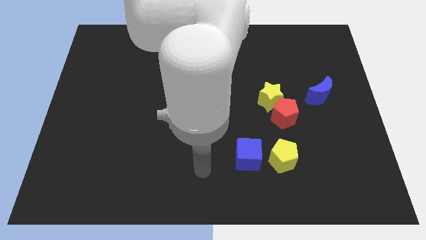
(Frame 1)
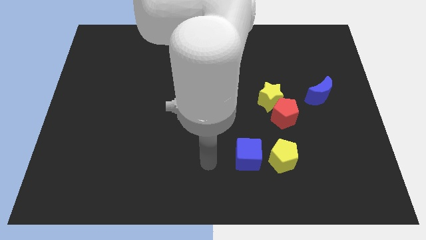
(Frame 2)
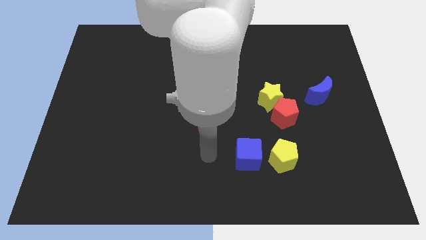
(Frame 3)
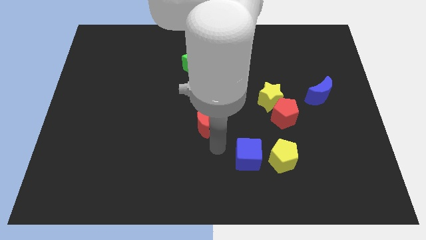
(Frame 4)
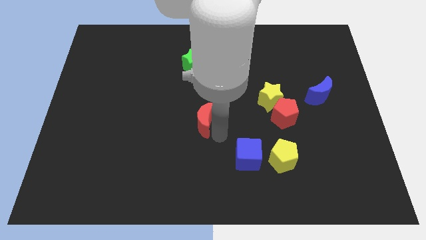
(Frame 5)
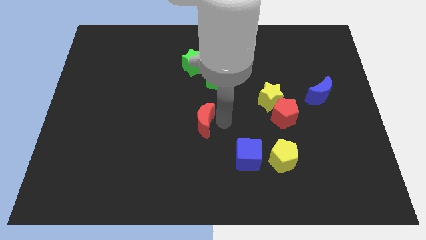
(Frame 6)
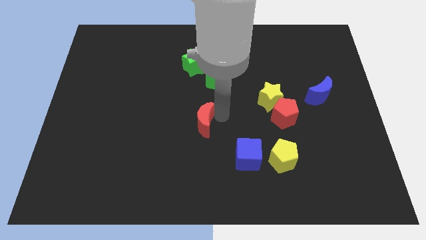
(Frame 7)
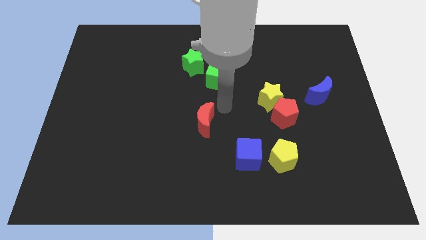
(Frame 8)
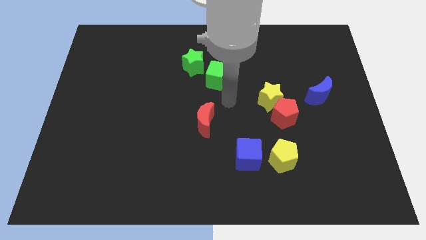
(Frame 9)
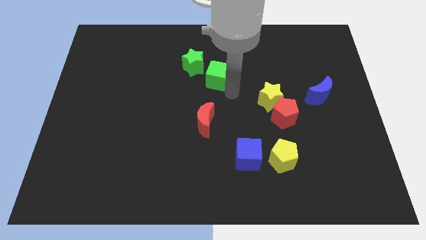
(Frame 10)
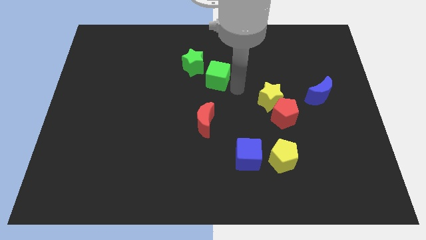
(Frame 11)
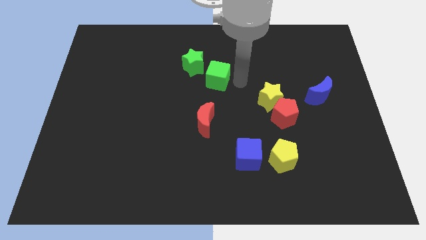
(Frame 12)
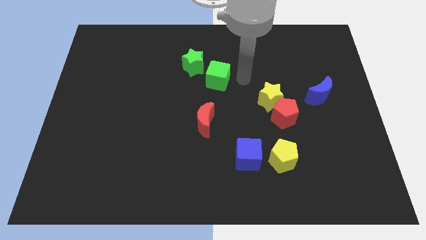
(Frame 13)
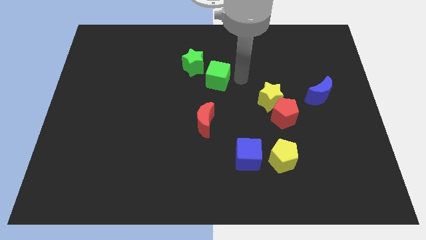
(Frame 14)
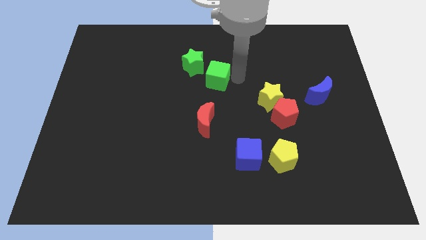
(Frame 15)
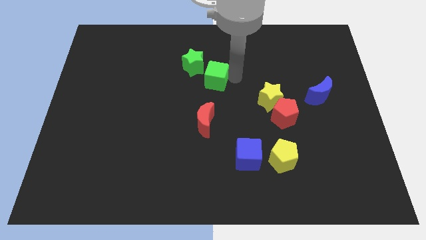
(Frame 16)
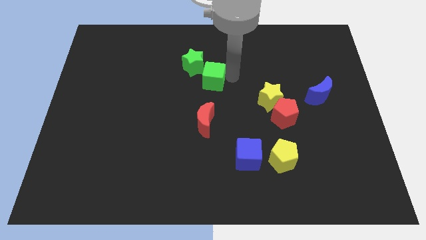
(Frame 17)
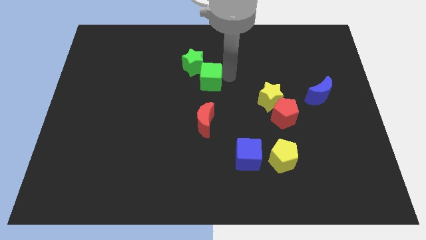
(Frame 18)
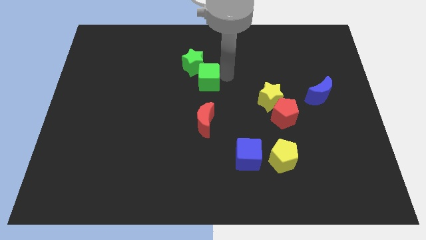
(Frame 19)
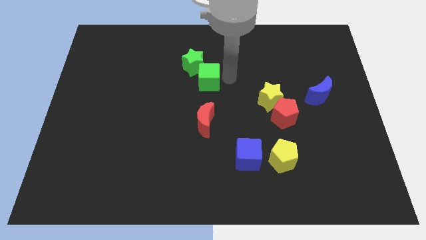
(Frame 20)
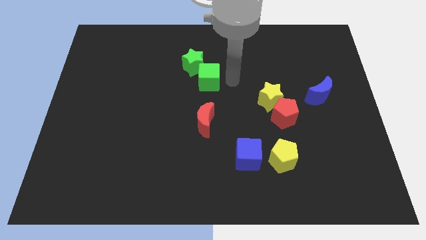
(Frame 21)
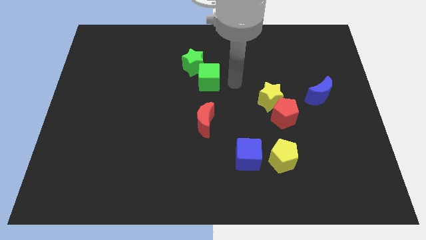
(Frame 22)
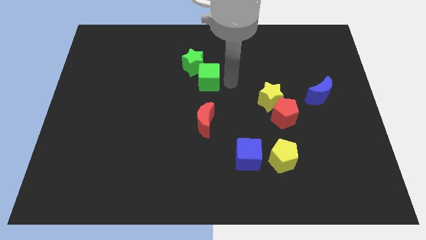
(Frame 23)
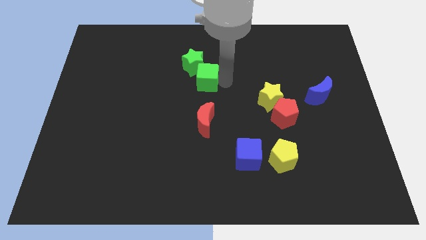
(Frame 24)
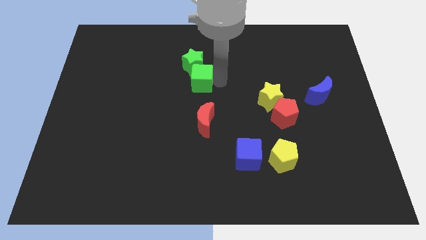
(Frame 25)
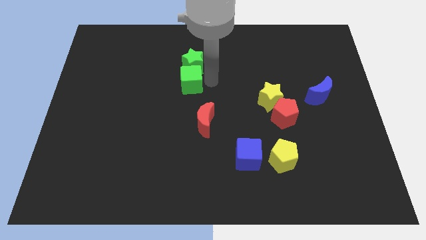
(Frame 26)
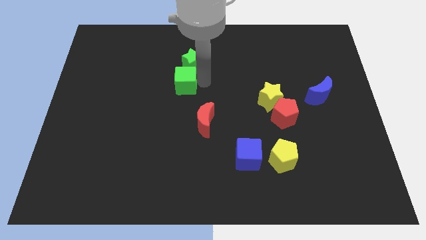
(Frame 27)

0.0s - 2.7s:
slightly move the green cube left

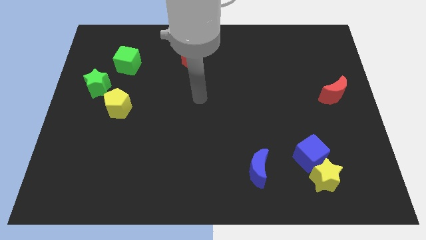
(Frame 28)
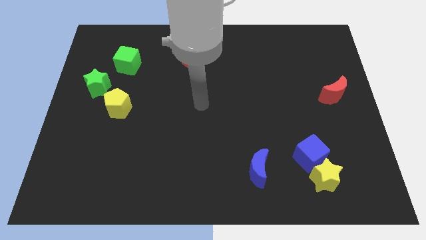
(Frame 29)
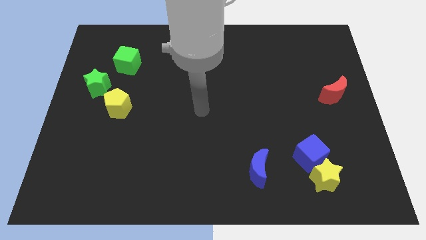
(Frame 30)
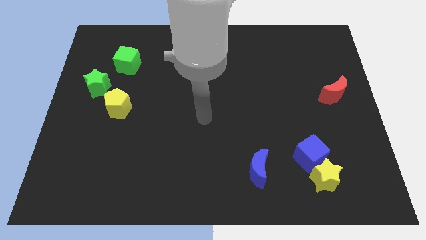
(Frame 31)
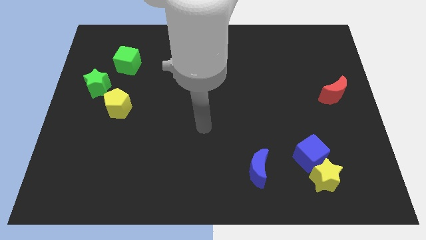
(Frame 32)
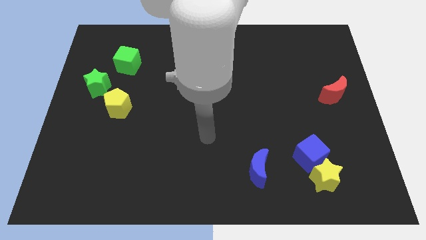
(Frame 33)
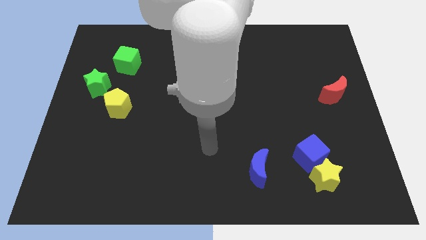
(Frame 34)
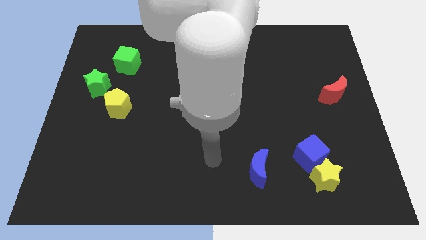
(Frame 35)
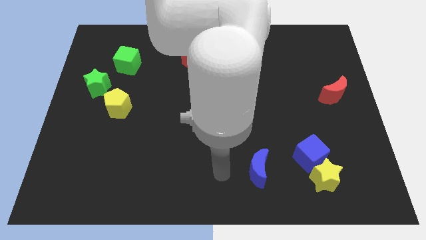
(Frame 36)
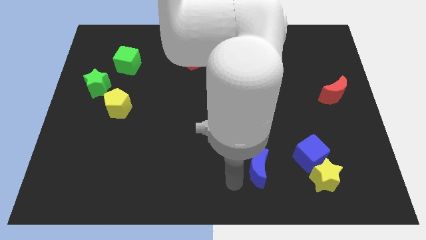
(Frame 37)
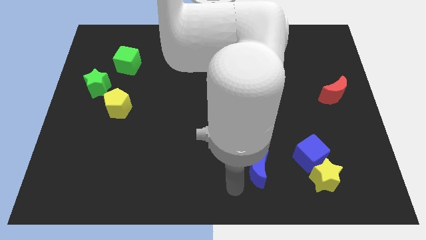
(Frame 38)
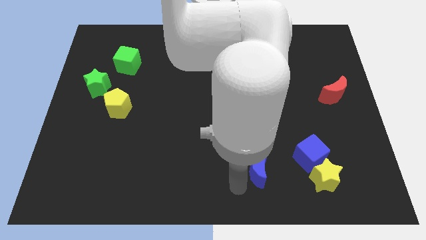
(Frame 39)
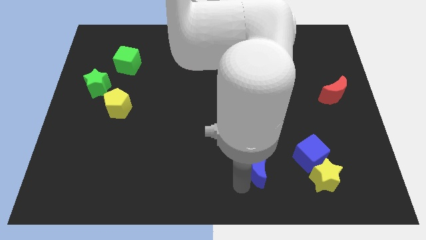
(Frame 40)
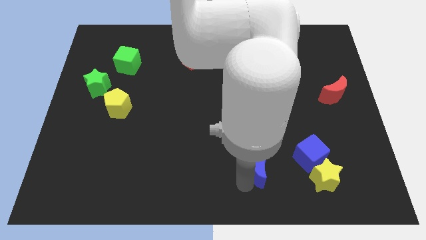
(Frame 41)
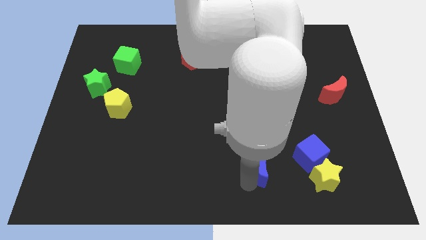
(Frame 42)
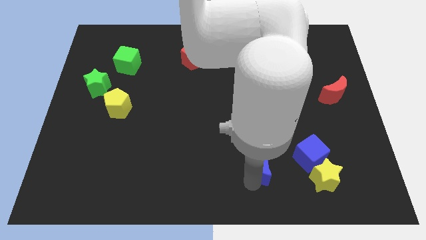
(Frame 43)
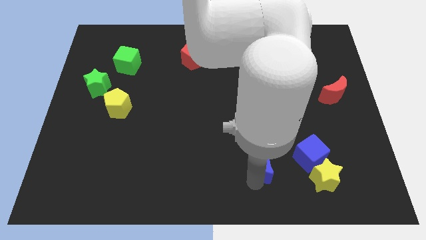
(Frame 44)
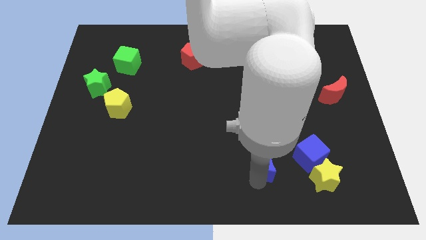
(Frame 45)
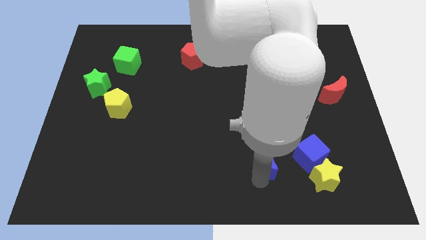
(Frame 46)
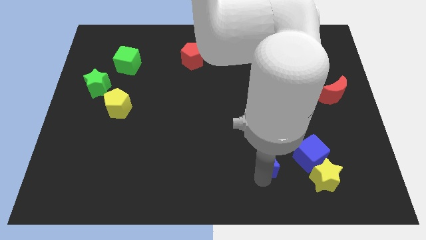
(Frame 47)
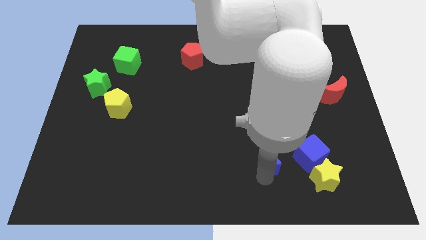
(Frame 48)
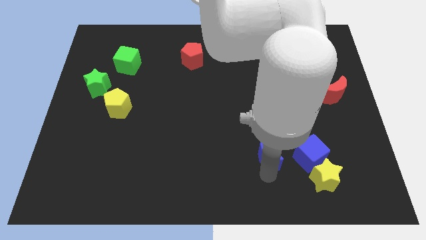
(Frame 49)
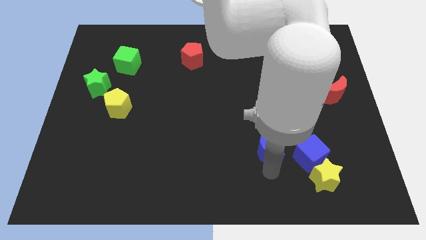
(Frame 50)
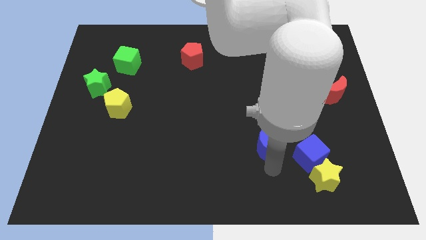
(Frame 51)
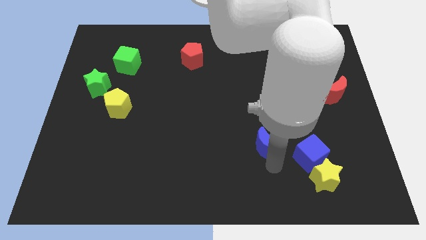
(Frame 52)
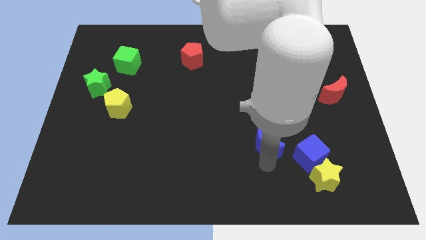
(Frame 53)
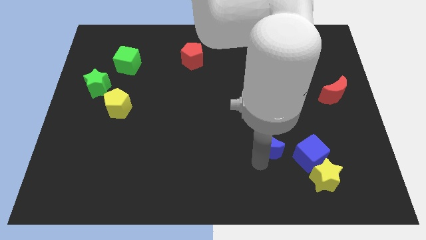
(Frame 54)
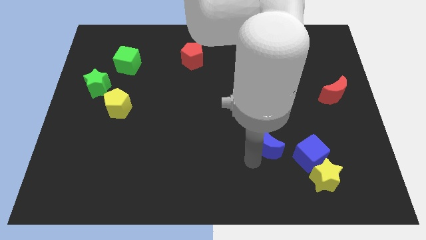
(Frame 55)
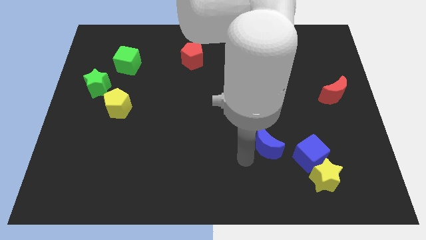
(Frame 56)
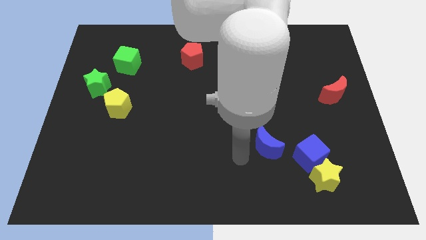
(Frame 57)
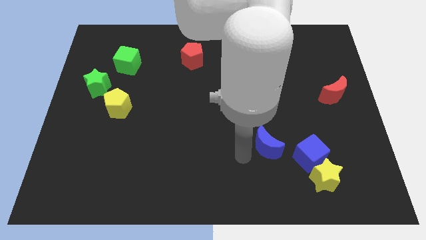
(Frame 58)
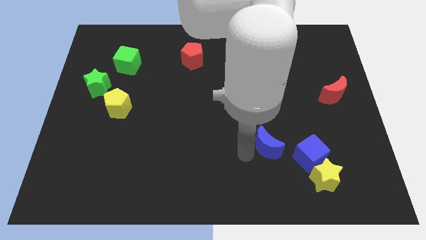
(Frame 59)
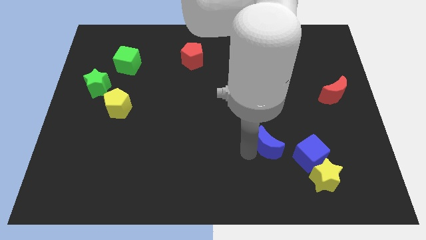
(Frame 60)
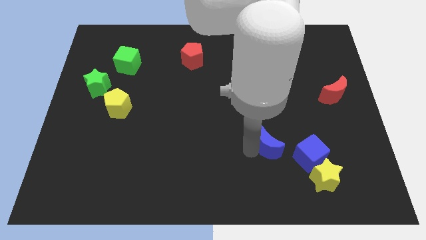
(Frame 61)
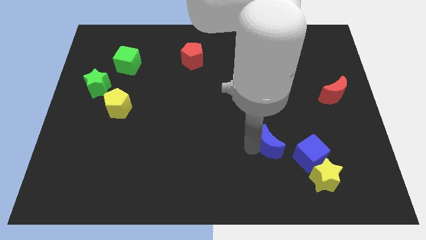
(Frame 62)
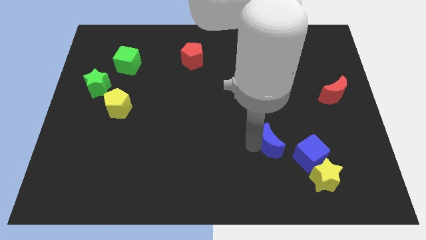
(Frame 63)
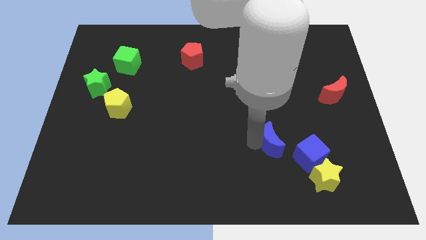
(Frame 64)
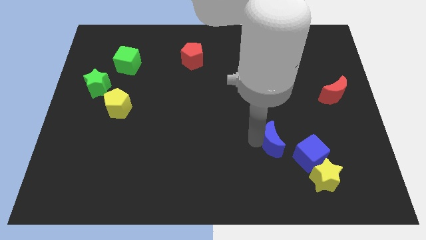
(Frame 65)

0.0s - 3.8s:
push the blue moon upwards and right a little

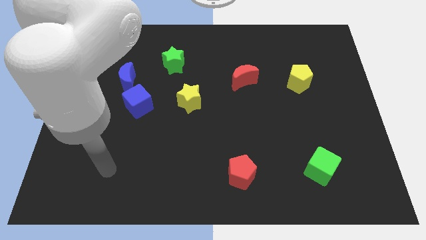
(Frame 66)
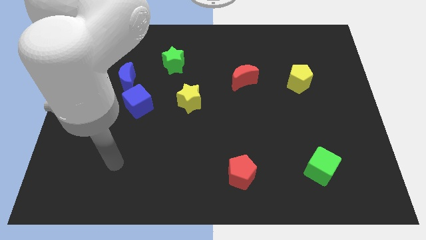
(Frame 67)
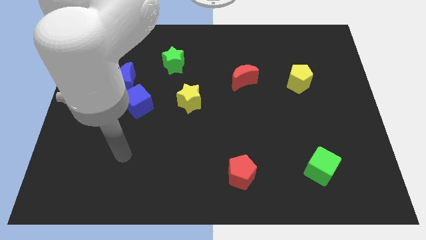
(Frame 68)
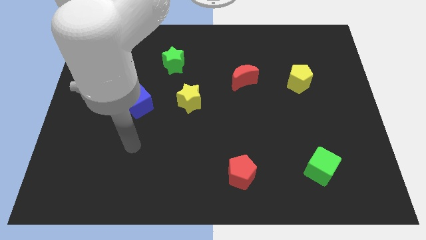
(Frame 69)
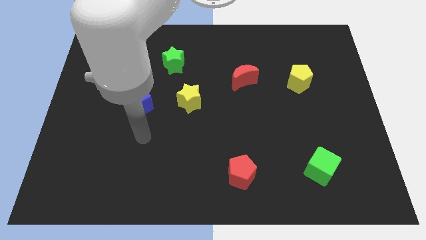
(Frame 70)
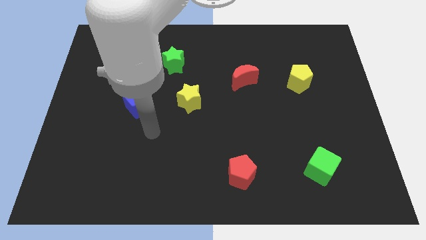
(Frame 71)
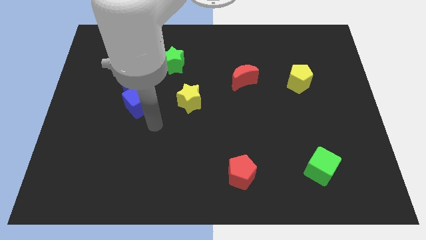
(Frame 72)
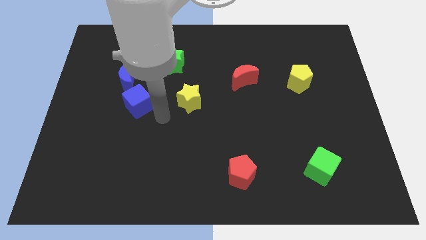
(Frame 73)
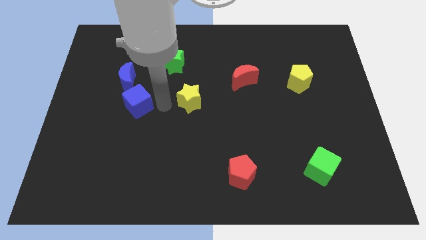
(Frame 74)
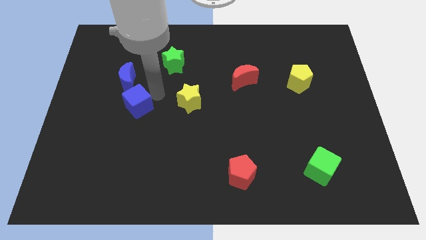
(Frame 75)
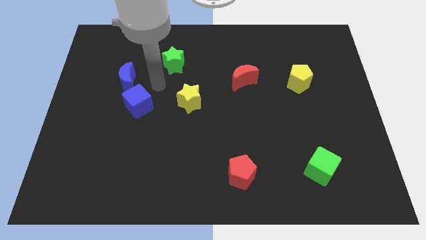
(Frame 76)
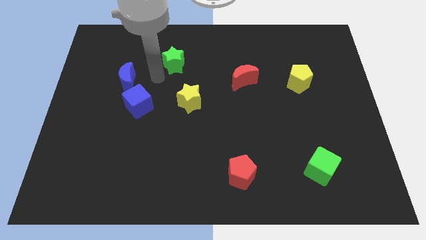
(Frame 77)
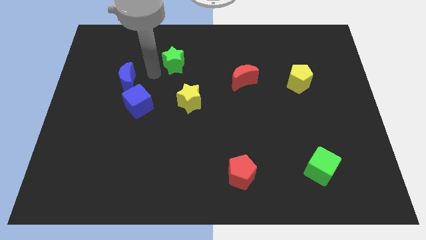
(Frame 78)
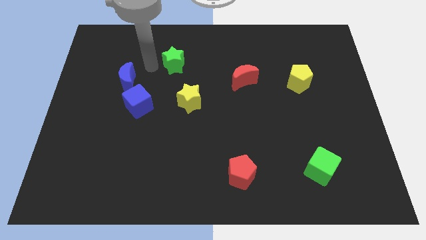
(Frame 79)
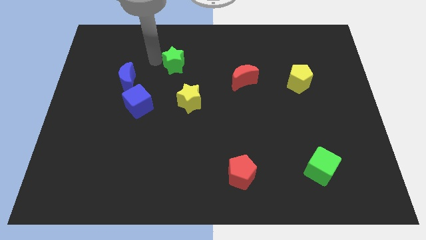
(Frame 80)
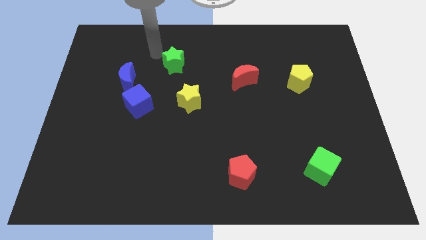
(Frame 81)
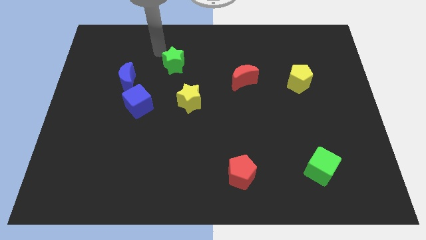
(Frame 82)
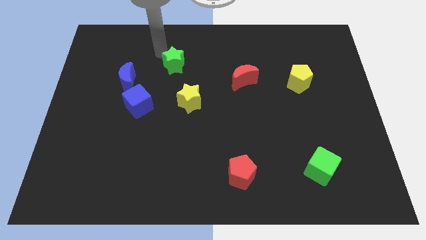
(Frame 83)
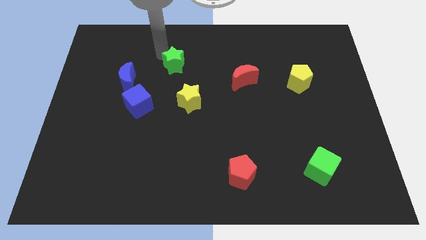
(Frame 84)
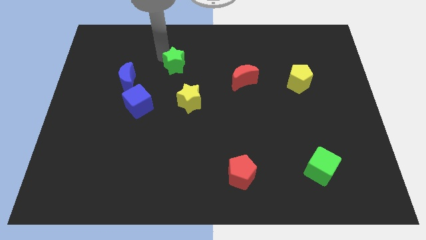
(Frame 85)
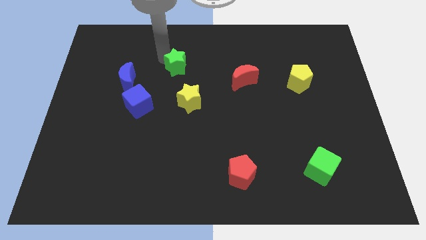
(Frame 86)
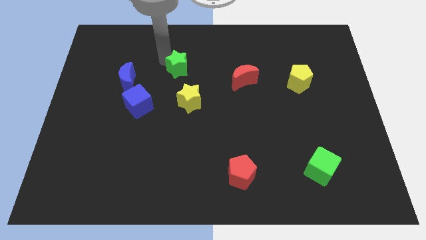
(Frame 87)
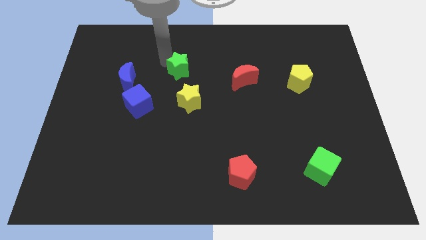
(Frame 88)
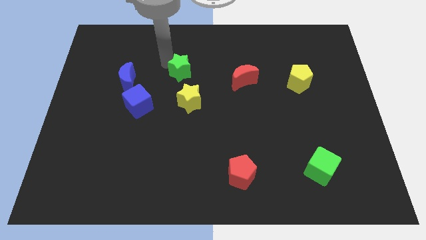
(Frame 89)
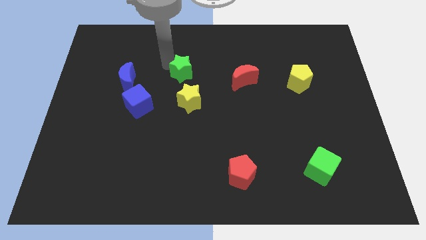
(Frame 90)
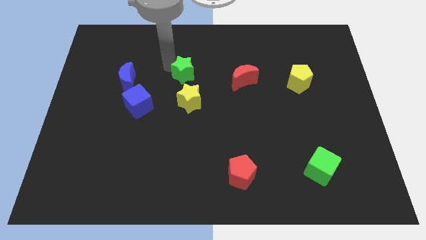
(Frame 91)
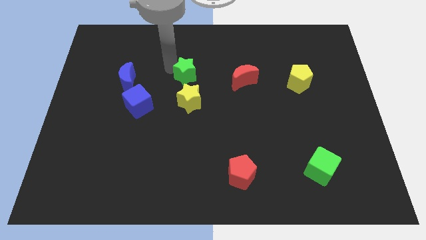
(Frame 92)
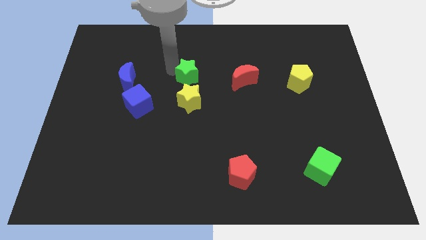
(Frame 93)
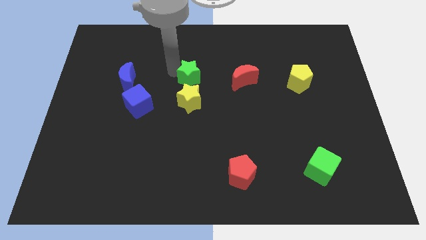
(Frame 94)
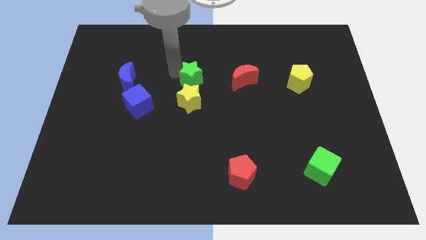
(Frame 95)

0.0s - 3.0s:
push the green star somewhat downwards and to the right
